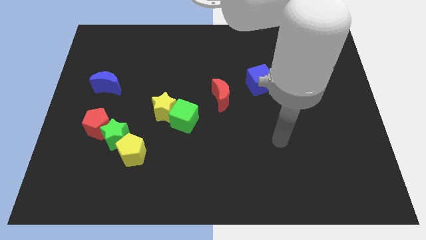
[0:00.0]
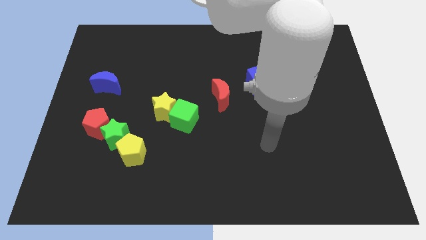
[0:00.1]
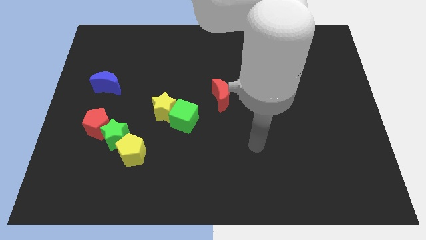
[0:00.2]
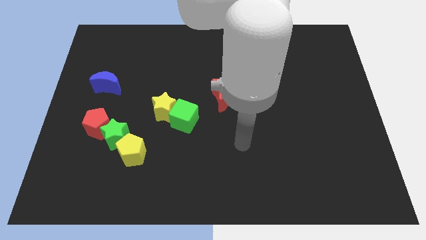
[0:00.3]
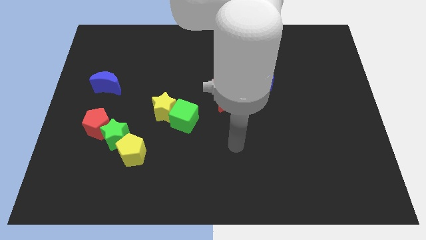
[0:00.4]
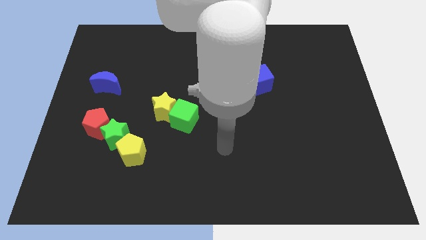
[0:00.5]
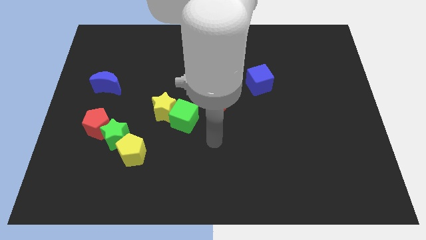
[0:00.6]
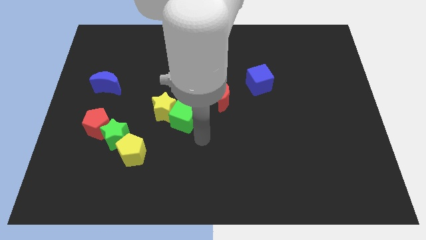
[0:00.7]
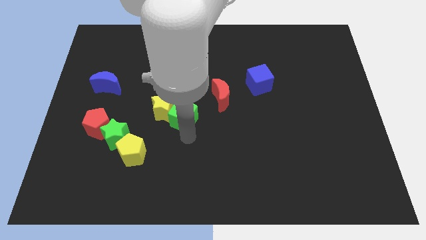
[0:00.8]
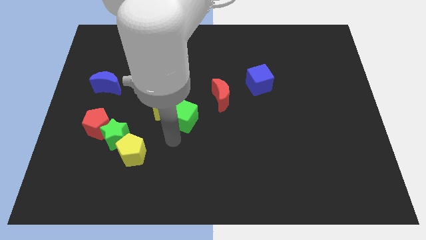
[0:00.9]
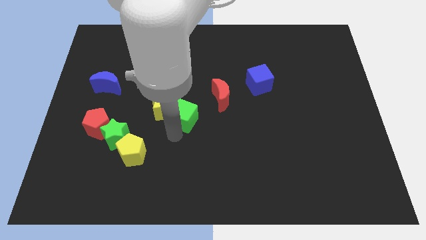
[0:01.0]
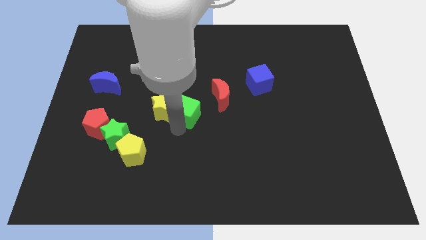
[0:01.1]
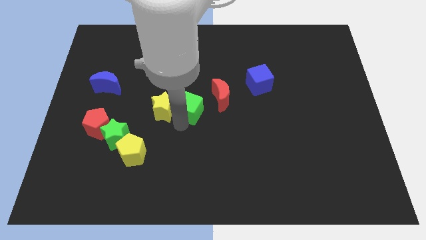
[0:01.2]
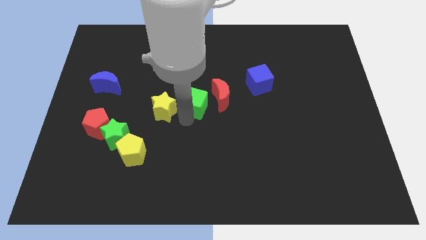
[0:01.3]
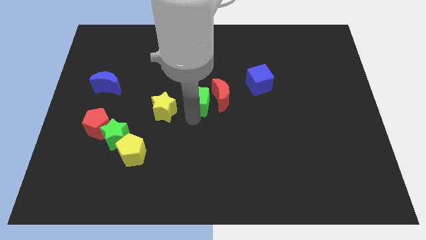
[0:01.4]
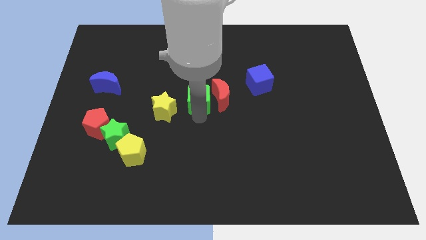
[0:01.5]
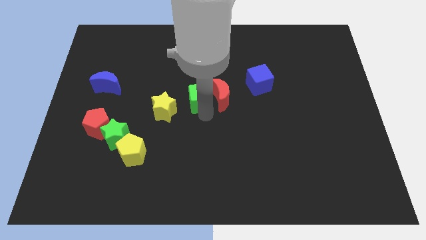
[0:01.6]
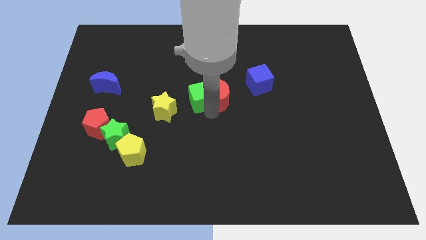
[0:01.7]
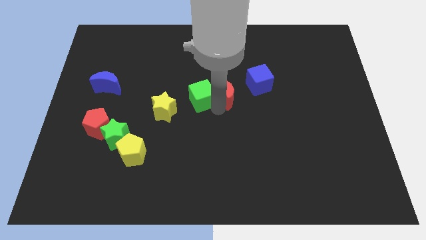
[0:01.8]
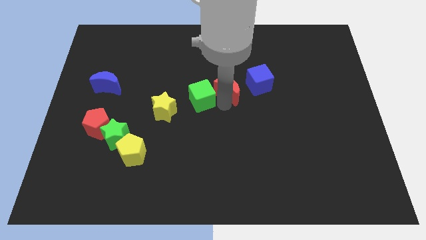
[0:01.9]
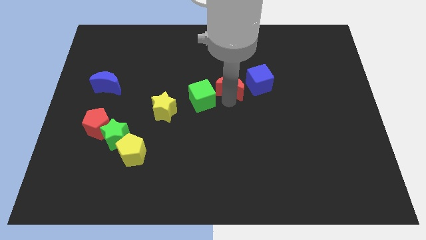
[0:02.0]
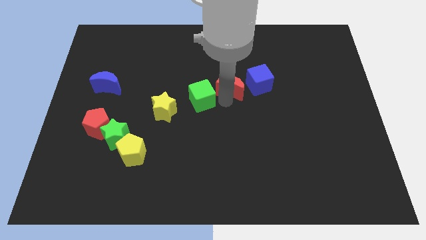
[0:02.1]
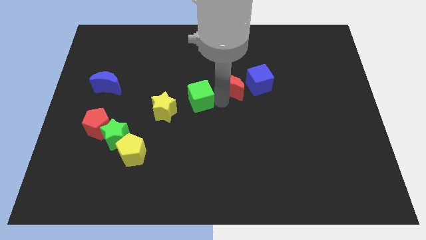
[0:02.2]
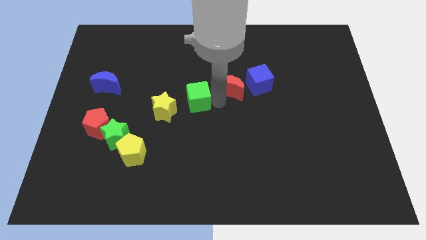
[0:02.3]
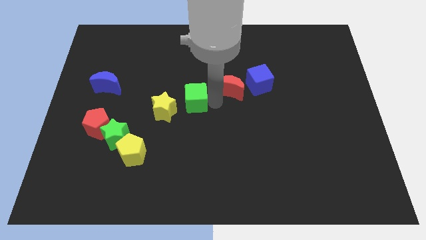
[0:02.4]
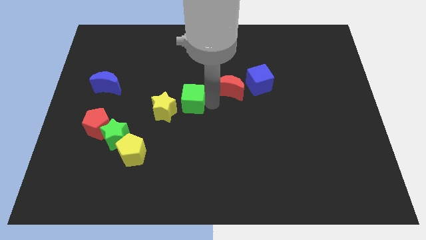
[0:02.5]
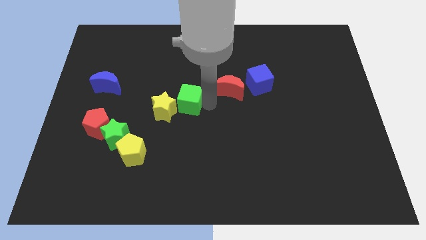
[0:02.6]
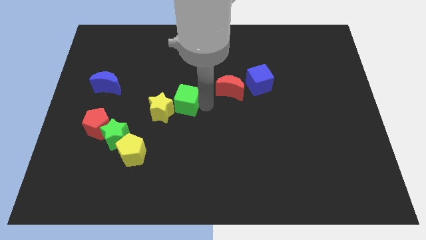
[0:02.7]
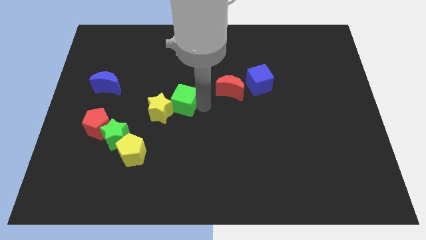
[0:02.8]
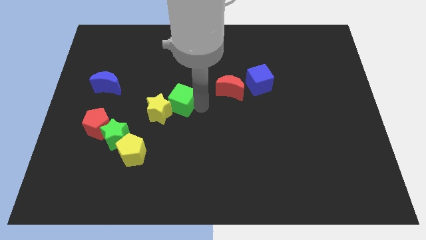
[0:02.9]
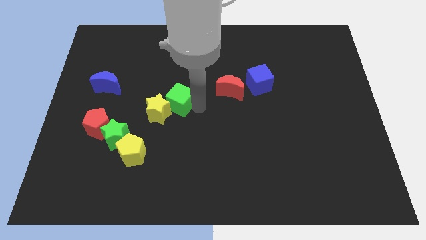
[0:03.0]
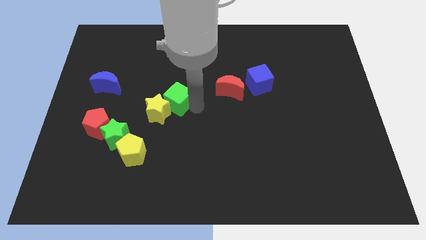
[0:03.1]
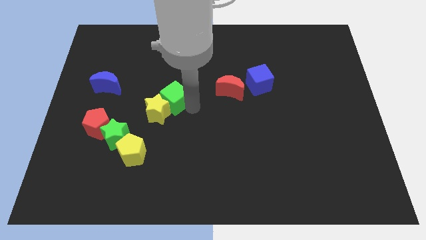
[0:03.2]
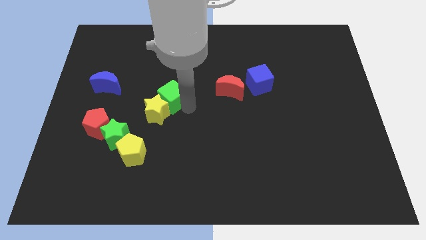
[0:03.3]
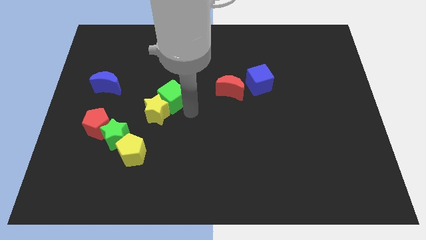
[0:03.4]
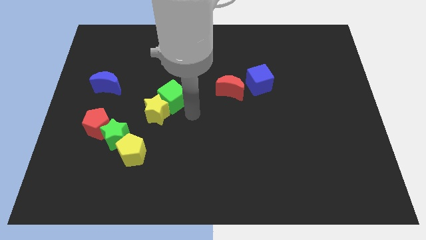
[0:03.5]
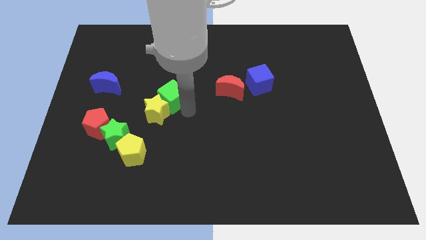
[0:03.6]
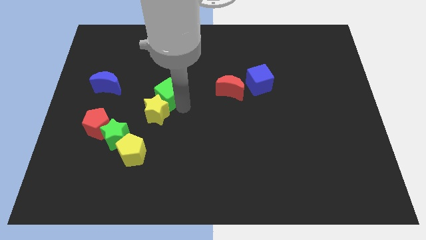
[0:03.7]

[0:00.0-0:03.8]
slightly slide the green cube diagonally up and left

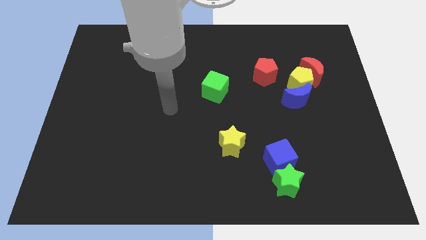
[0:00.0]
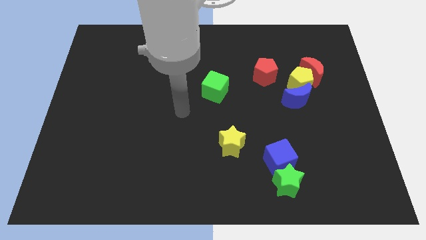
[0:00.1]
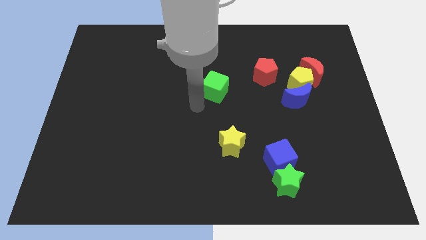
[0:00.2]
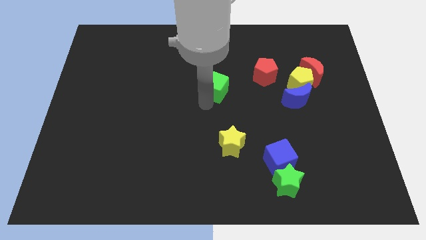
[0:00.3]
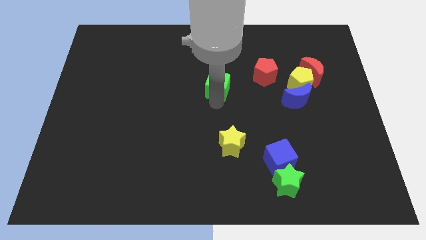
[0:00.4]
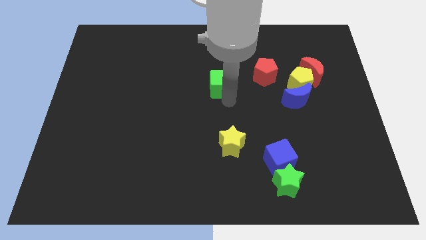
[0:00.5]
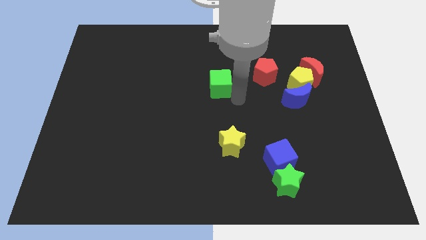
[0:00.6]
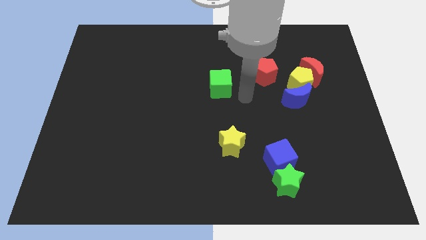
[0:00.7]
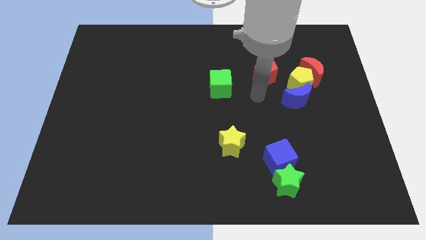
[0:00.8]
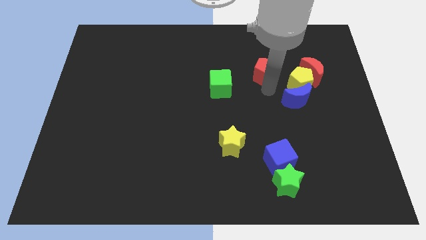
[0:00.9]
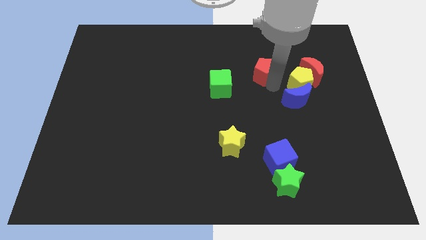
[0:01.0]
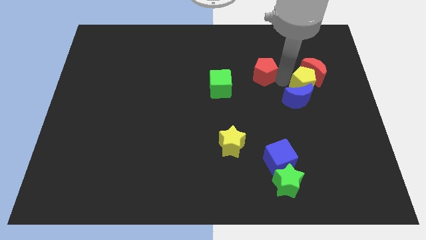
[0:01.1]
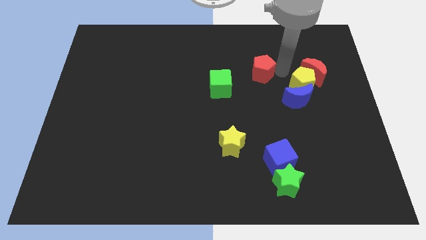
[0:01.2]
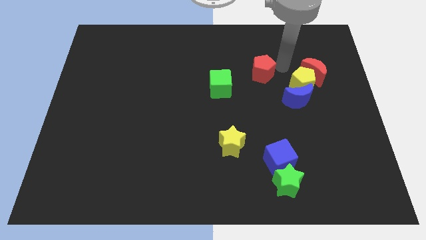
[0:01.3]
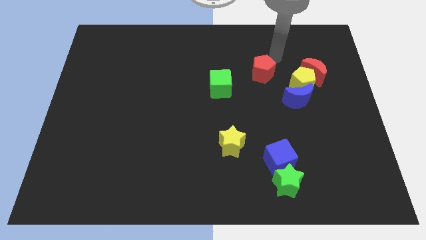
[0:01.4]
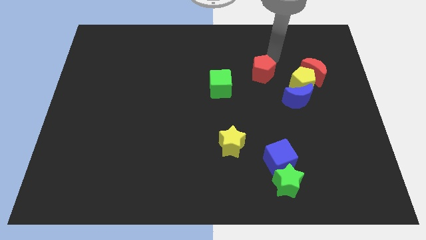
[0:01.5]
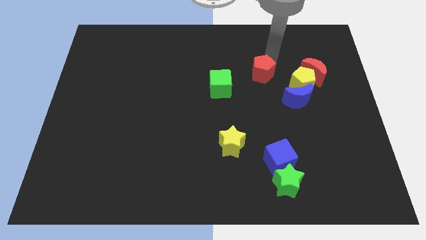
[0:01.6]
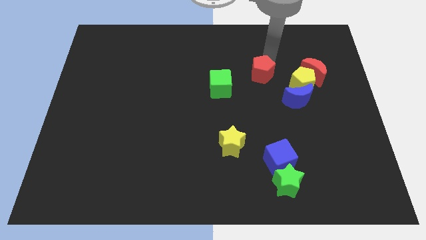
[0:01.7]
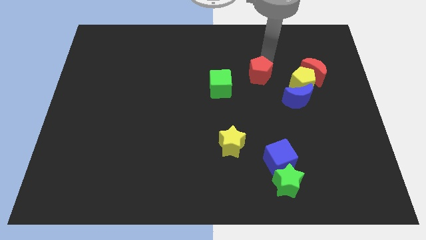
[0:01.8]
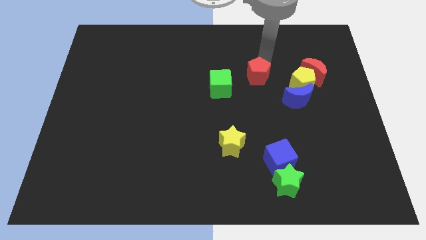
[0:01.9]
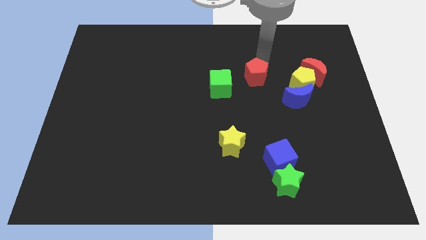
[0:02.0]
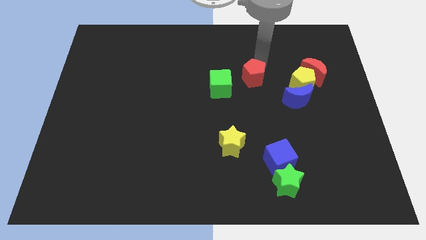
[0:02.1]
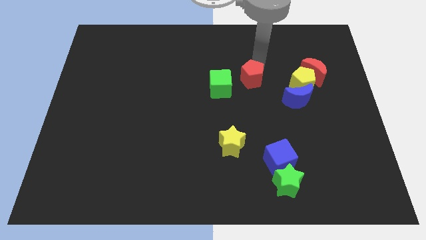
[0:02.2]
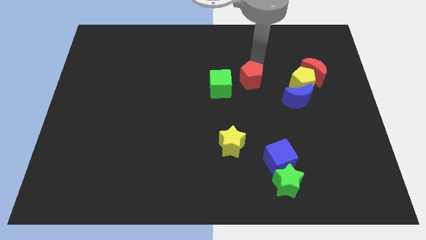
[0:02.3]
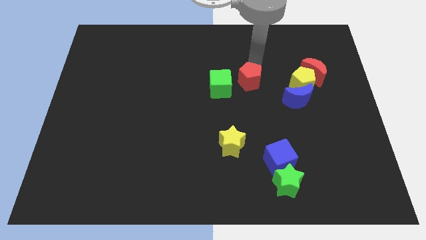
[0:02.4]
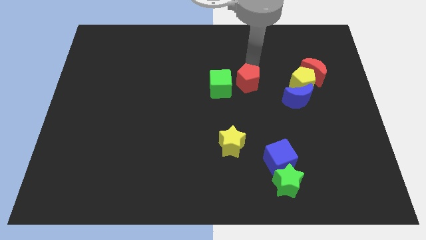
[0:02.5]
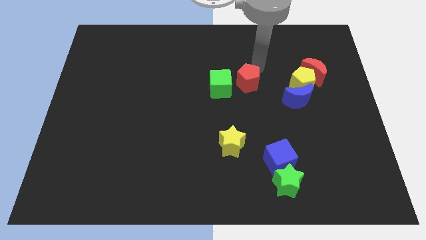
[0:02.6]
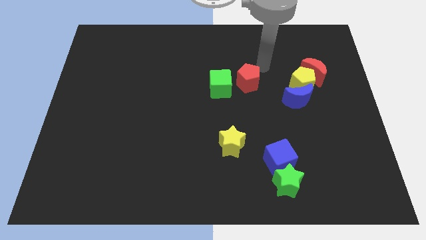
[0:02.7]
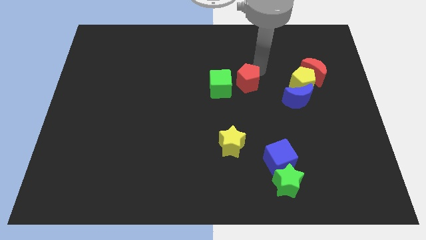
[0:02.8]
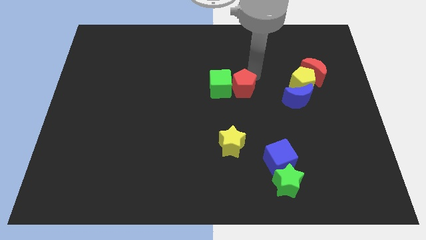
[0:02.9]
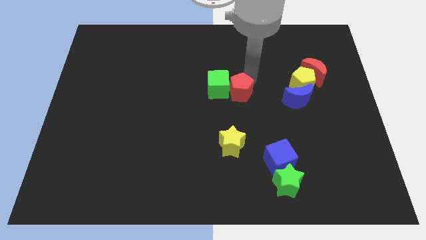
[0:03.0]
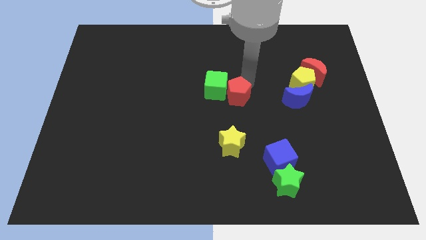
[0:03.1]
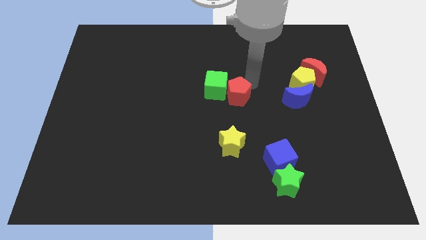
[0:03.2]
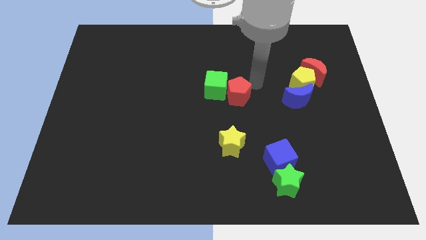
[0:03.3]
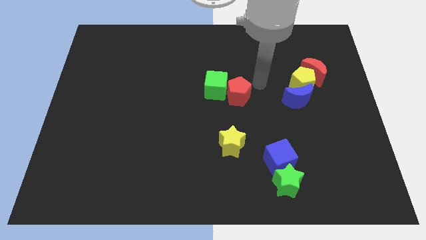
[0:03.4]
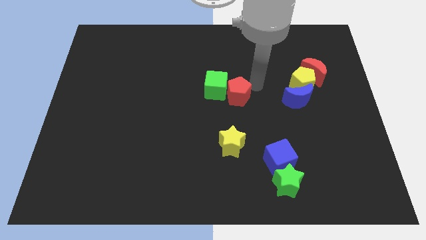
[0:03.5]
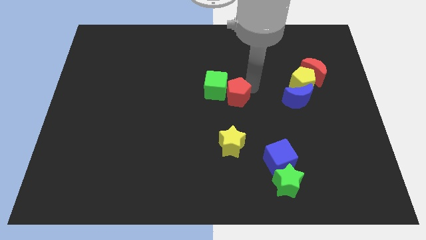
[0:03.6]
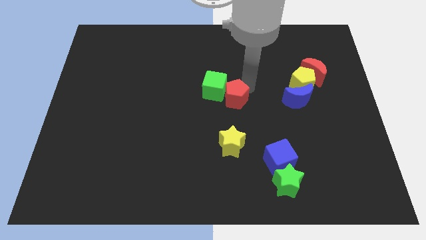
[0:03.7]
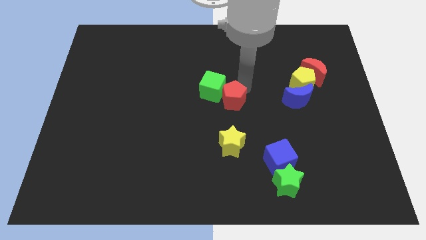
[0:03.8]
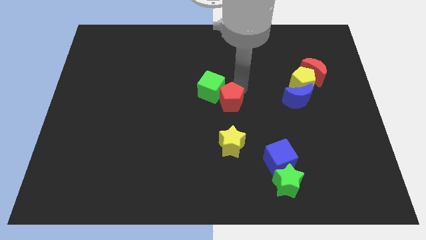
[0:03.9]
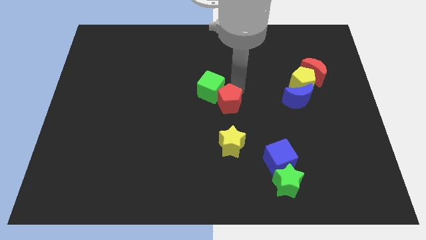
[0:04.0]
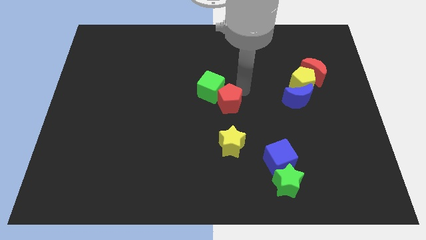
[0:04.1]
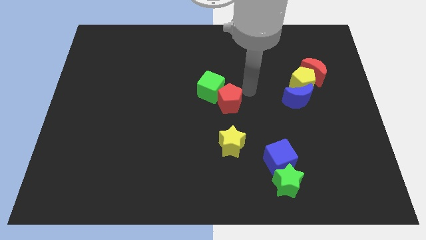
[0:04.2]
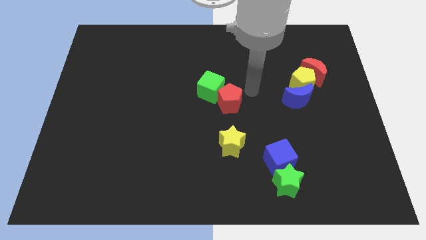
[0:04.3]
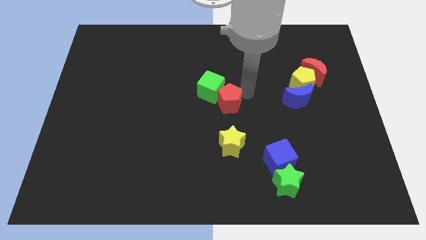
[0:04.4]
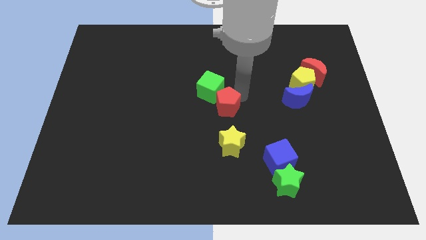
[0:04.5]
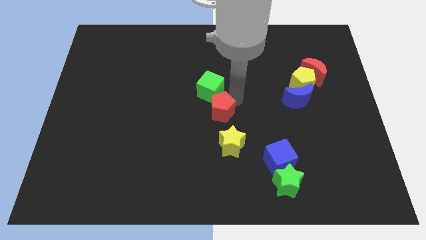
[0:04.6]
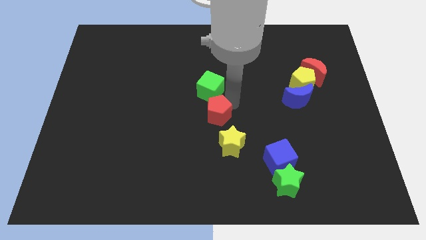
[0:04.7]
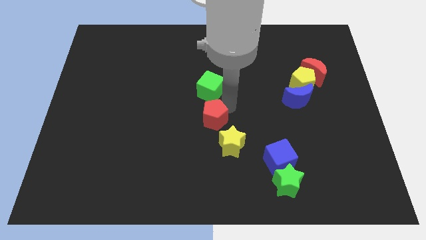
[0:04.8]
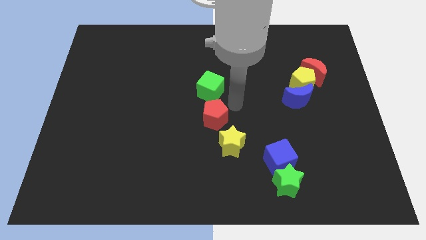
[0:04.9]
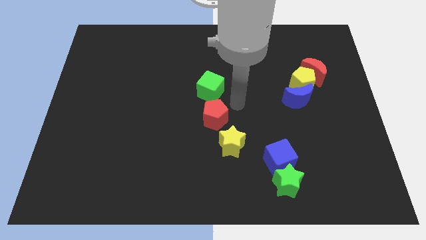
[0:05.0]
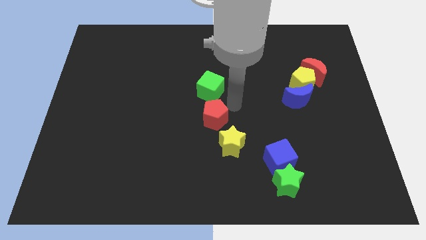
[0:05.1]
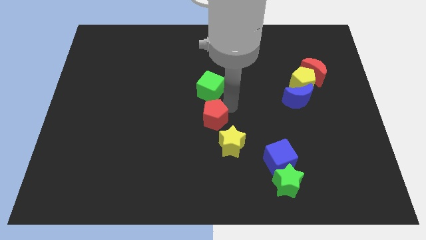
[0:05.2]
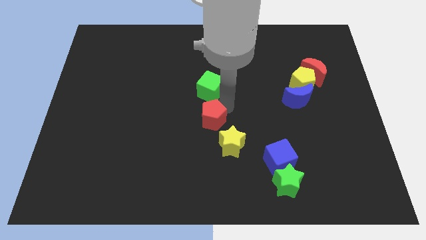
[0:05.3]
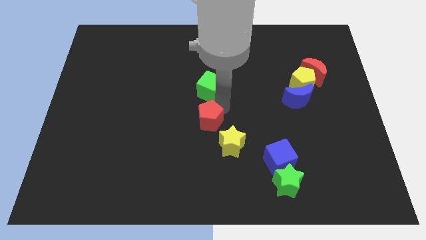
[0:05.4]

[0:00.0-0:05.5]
push the red pentagon down and then left
